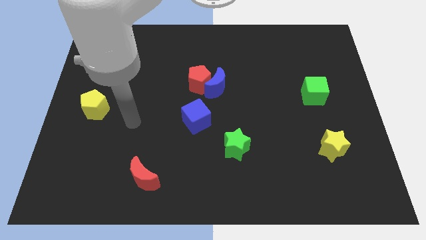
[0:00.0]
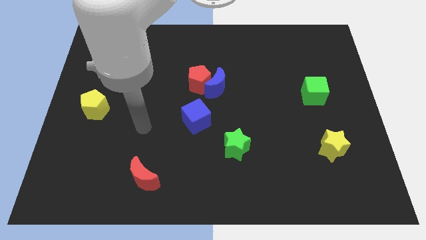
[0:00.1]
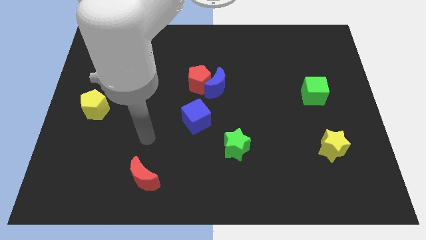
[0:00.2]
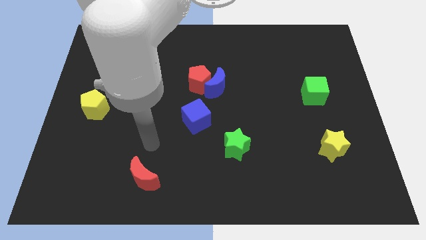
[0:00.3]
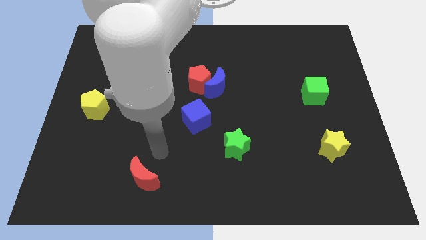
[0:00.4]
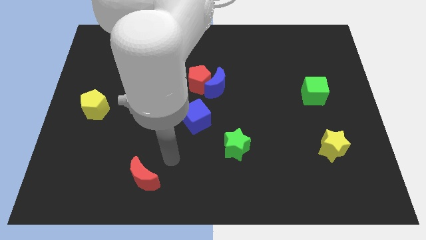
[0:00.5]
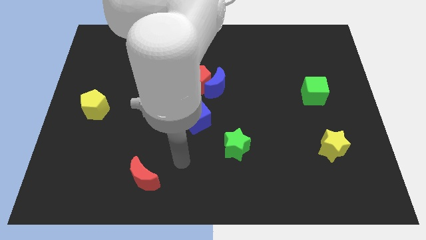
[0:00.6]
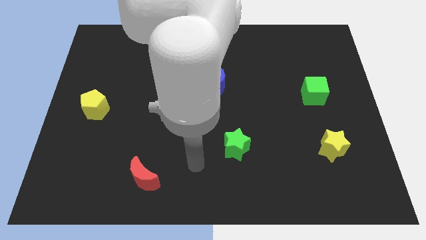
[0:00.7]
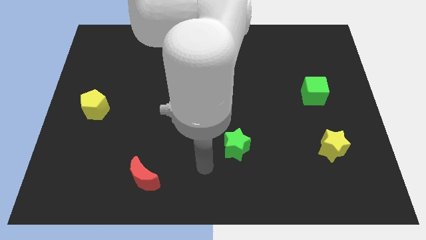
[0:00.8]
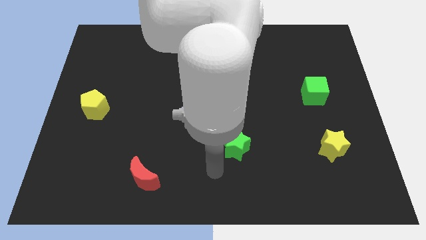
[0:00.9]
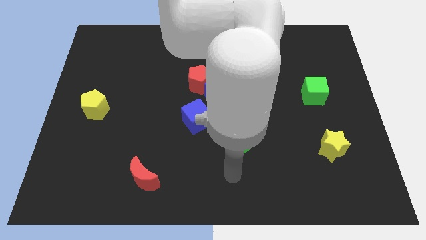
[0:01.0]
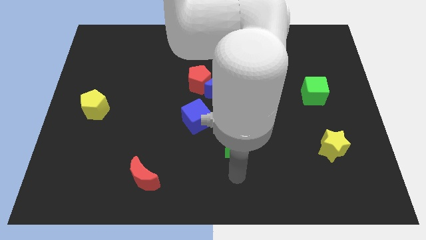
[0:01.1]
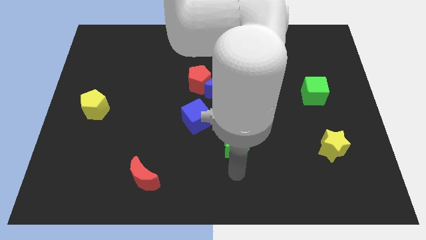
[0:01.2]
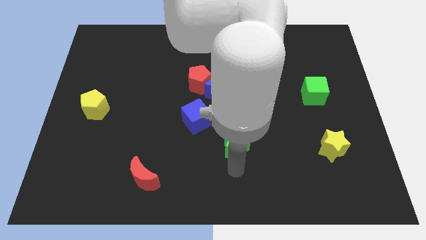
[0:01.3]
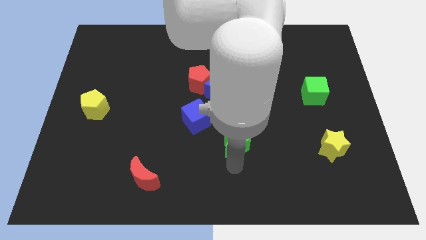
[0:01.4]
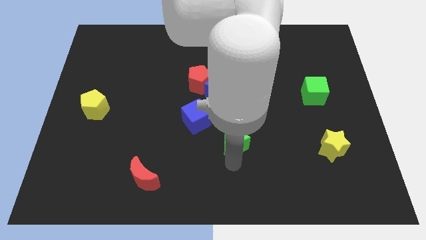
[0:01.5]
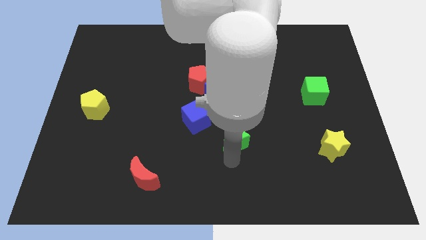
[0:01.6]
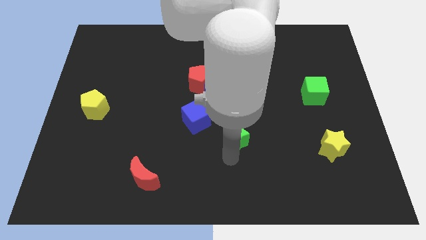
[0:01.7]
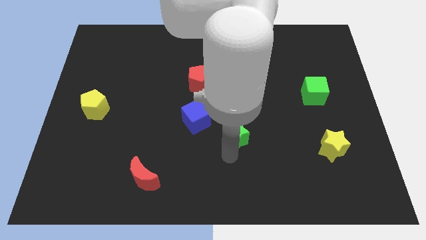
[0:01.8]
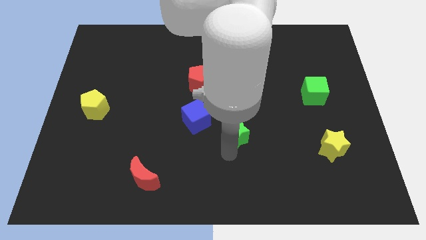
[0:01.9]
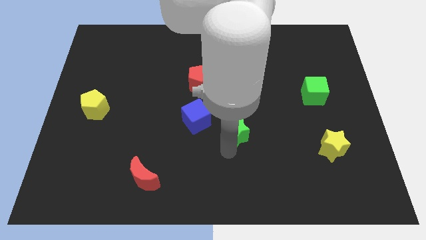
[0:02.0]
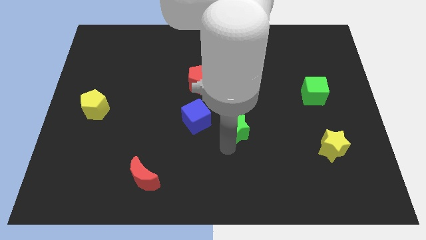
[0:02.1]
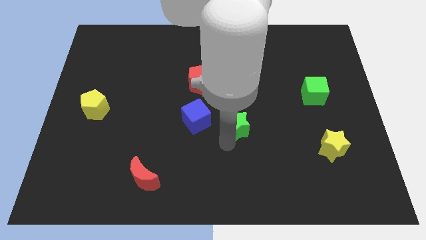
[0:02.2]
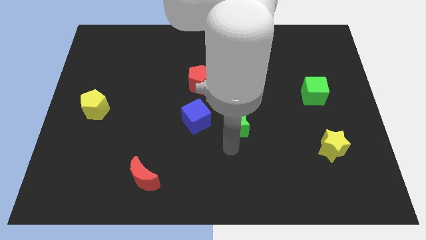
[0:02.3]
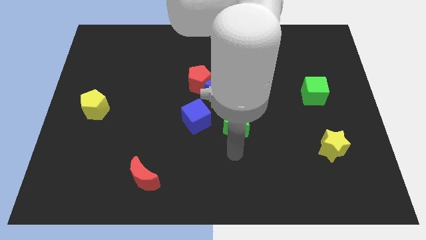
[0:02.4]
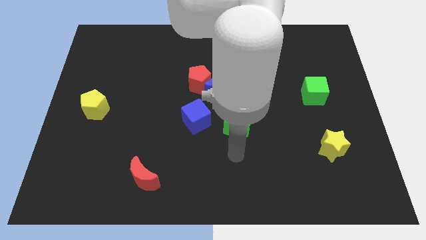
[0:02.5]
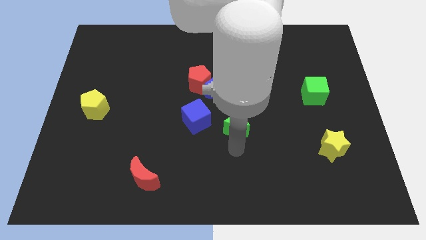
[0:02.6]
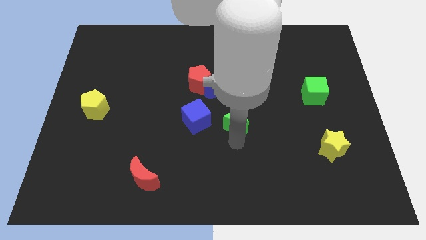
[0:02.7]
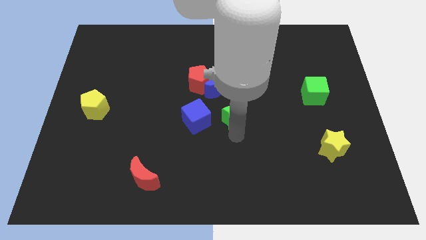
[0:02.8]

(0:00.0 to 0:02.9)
slightly slide the green star up

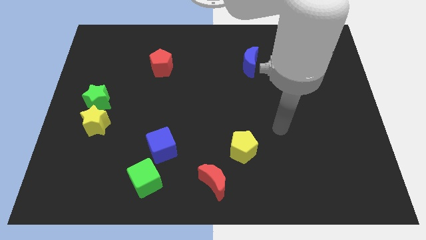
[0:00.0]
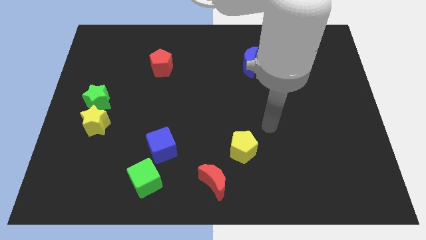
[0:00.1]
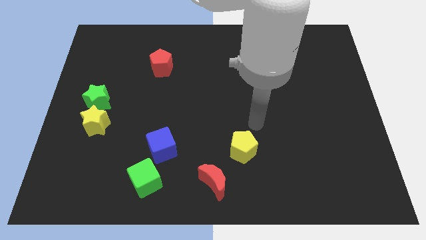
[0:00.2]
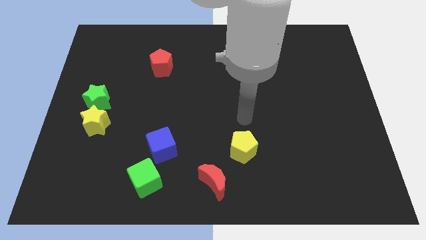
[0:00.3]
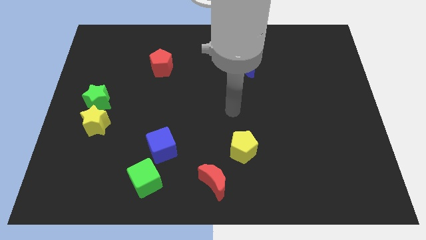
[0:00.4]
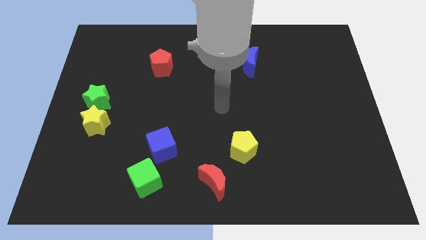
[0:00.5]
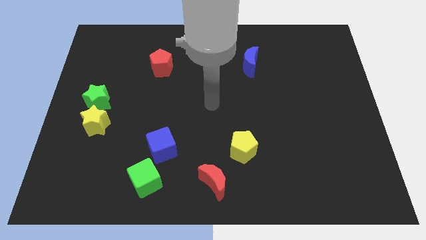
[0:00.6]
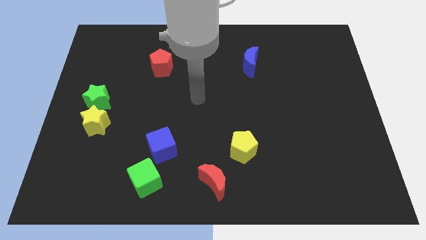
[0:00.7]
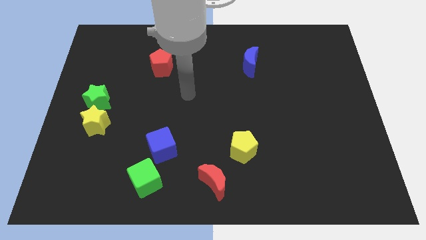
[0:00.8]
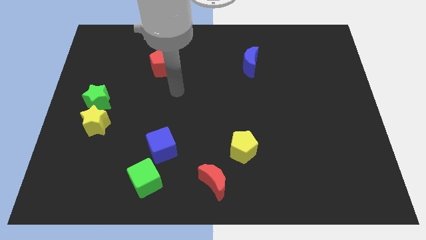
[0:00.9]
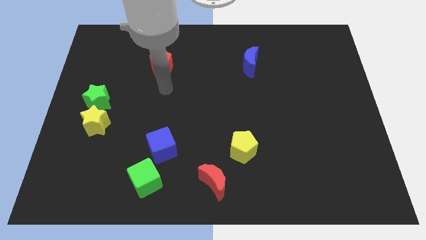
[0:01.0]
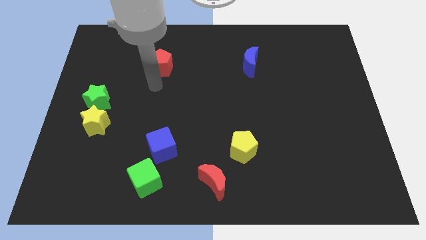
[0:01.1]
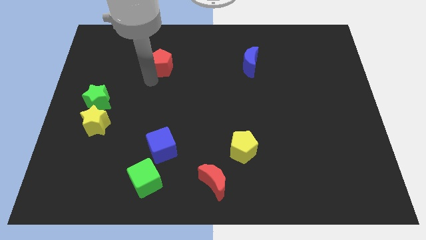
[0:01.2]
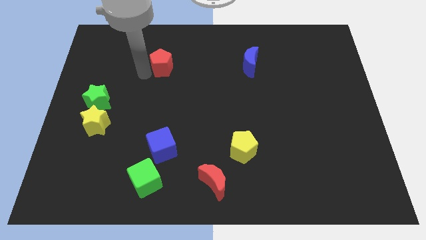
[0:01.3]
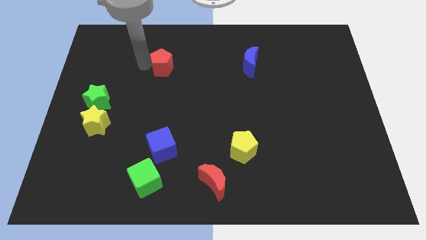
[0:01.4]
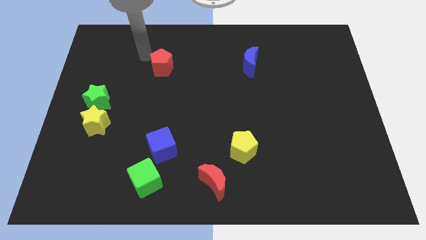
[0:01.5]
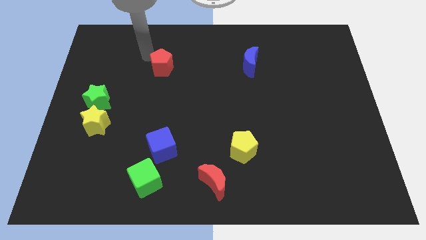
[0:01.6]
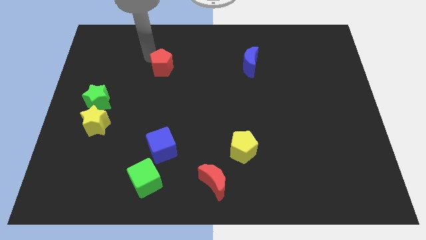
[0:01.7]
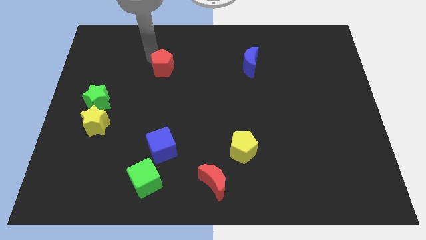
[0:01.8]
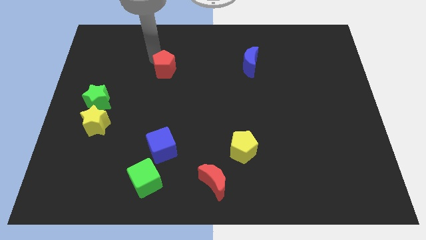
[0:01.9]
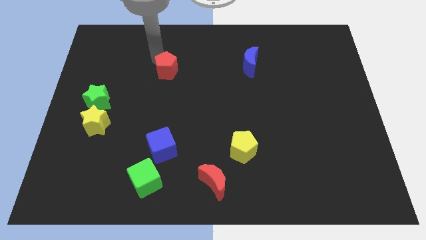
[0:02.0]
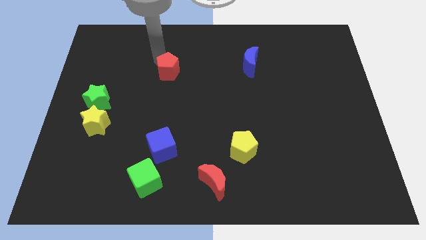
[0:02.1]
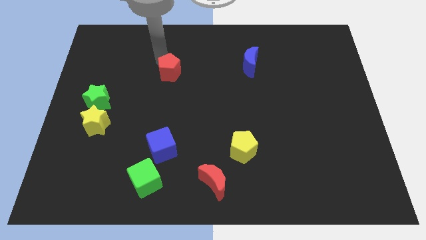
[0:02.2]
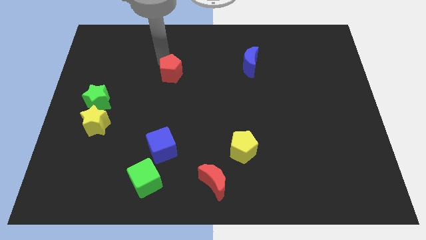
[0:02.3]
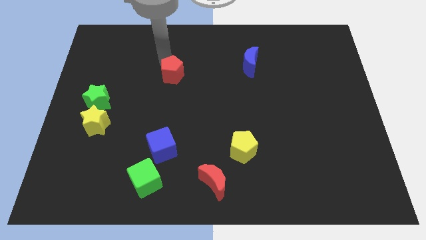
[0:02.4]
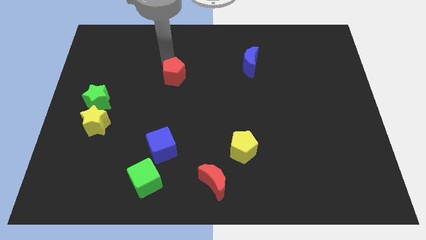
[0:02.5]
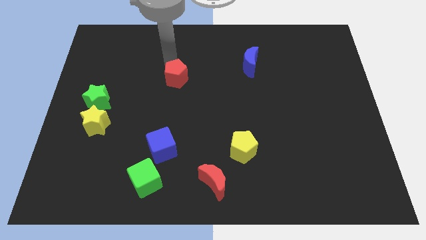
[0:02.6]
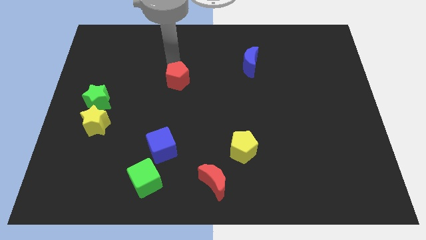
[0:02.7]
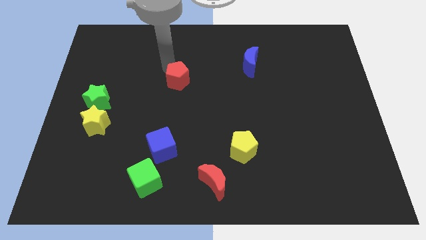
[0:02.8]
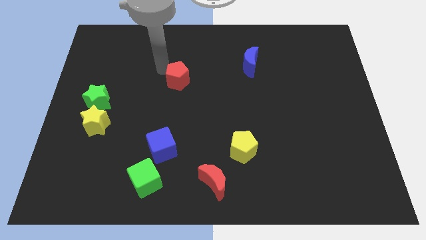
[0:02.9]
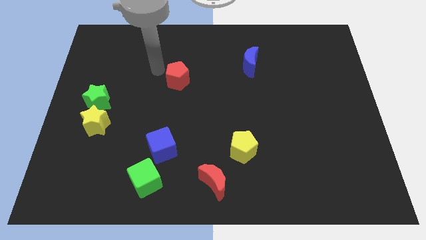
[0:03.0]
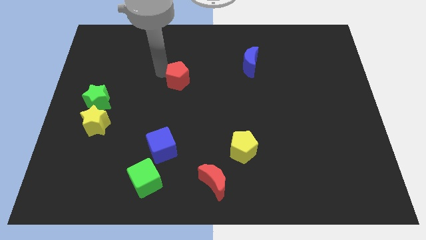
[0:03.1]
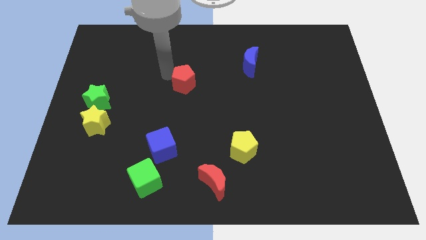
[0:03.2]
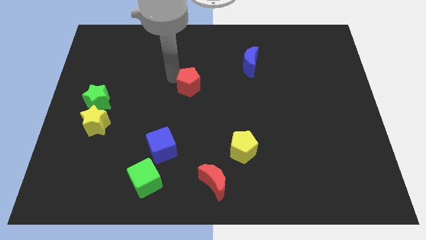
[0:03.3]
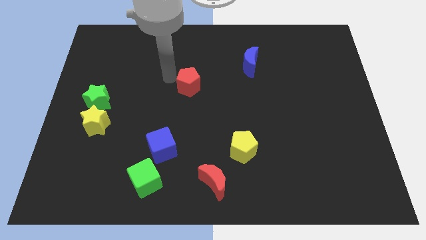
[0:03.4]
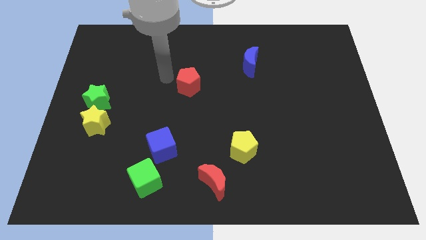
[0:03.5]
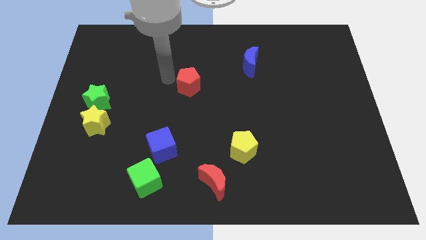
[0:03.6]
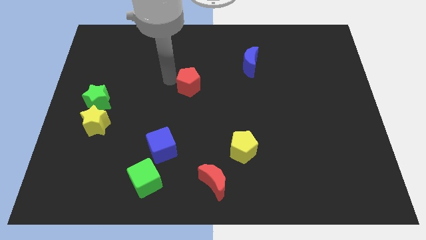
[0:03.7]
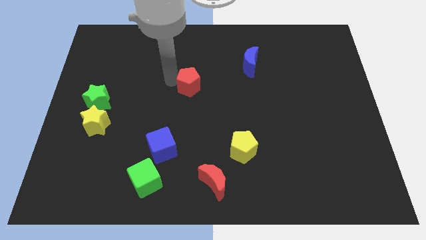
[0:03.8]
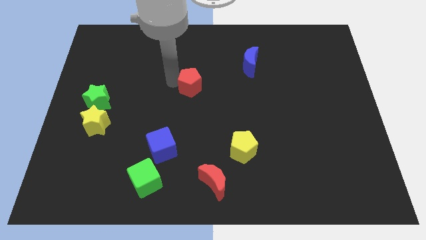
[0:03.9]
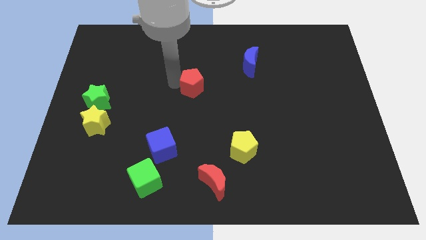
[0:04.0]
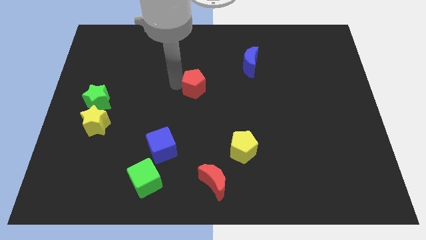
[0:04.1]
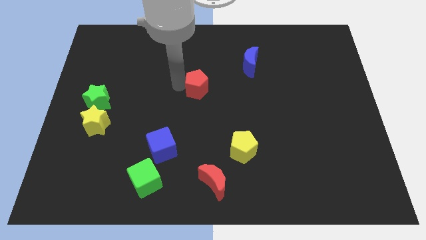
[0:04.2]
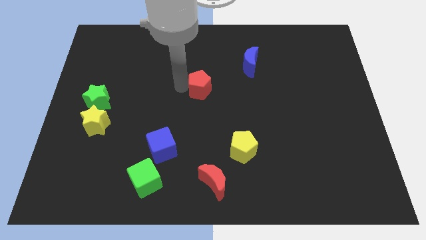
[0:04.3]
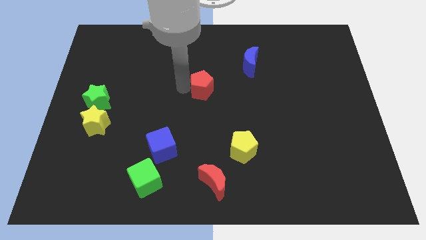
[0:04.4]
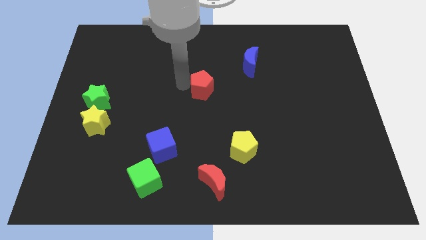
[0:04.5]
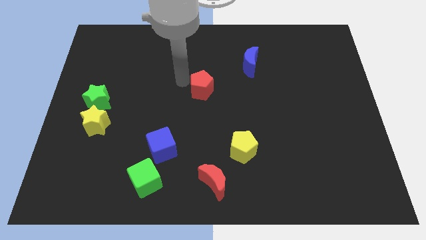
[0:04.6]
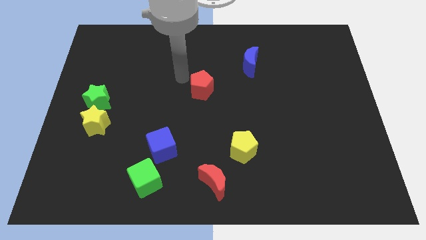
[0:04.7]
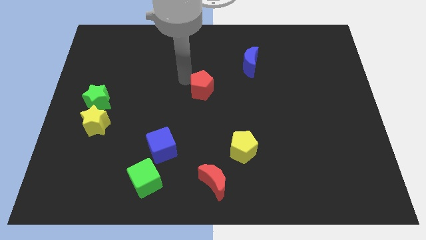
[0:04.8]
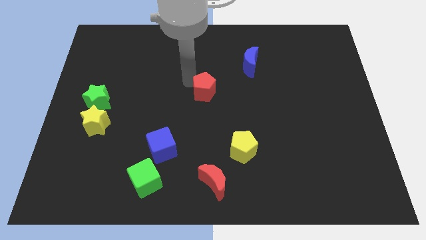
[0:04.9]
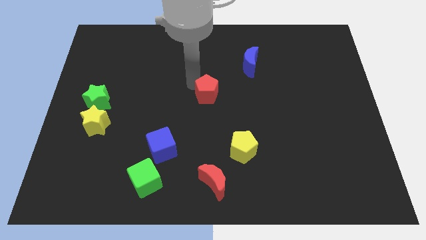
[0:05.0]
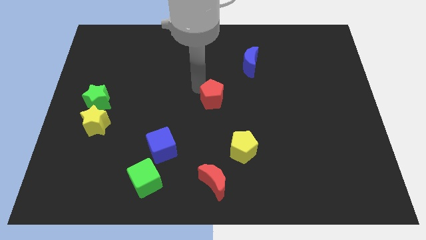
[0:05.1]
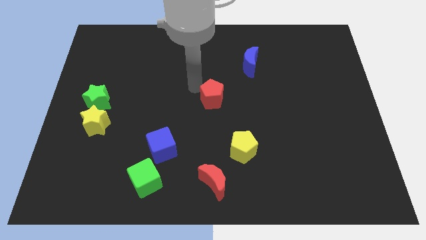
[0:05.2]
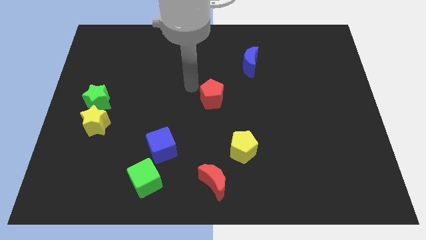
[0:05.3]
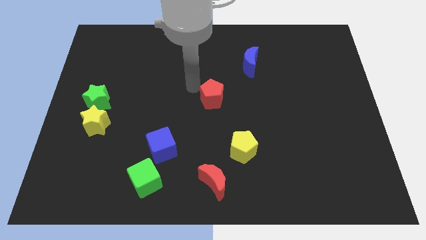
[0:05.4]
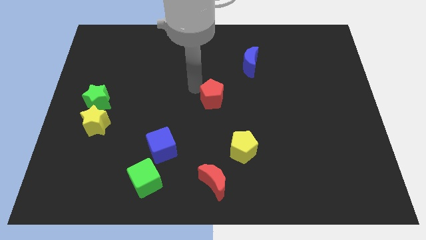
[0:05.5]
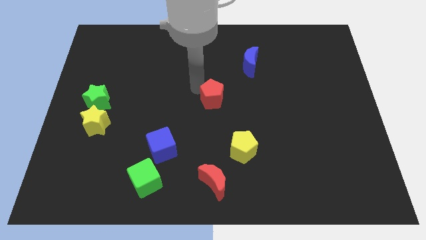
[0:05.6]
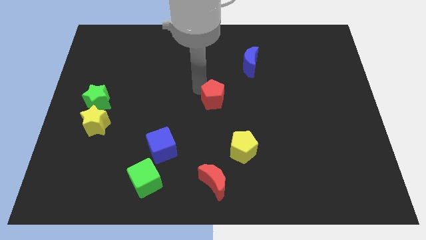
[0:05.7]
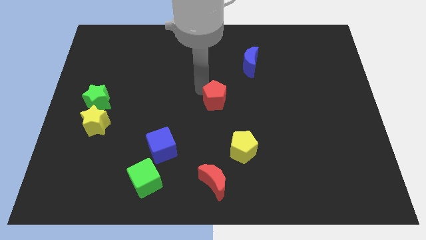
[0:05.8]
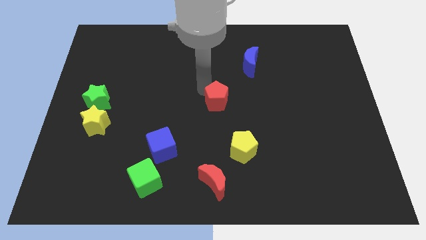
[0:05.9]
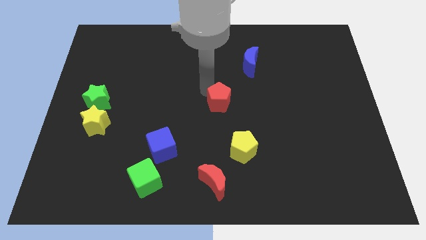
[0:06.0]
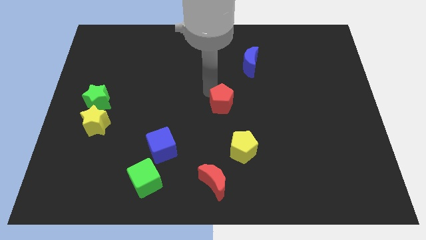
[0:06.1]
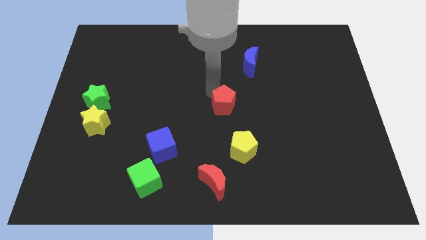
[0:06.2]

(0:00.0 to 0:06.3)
push the red pentagon down and to the right
